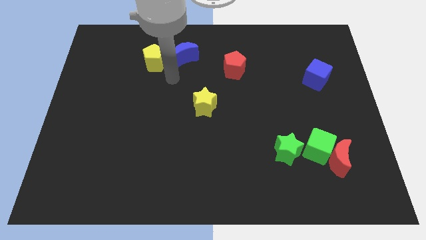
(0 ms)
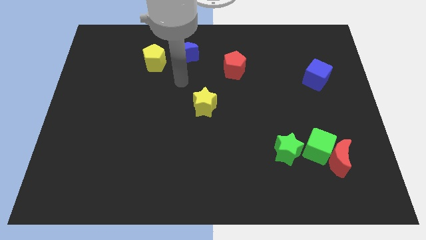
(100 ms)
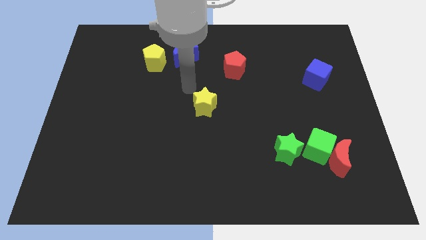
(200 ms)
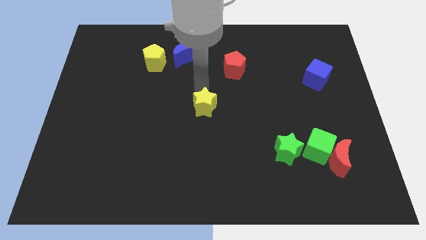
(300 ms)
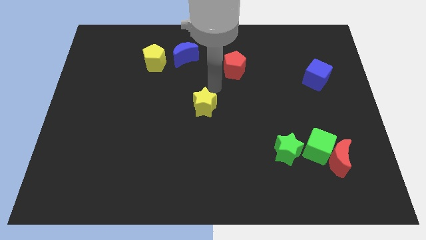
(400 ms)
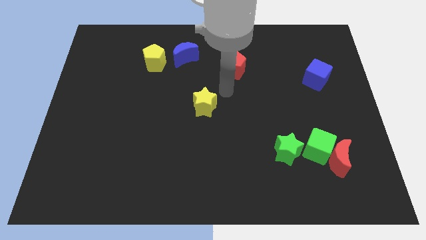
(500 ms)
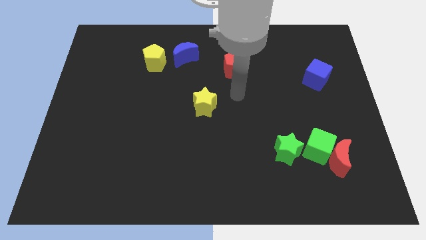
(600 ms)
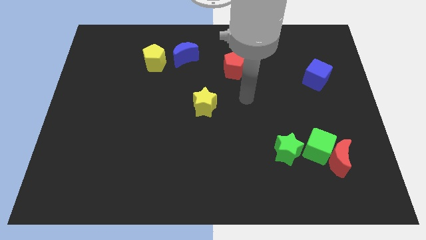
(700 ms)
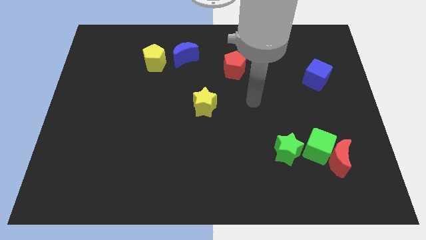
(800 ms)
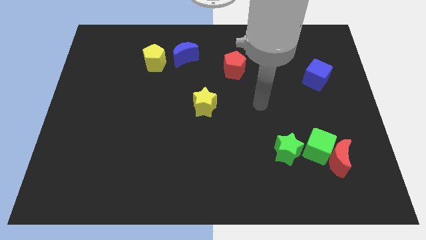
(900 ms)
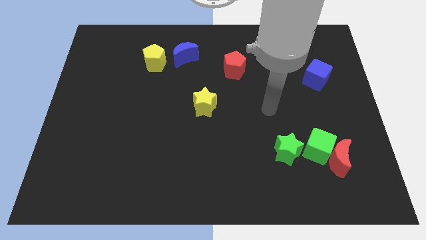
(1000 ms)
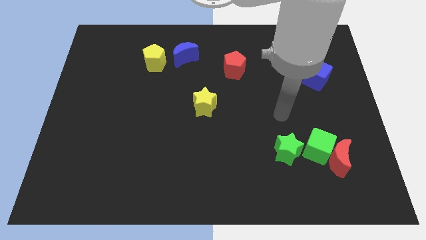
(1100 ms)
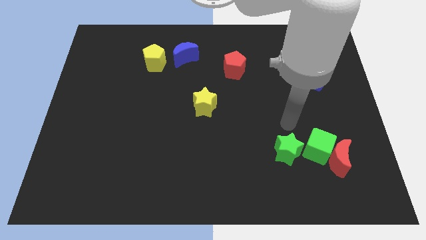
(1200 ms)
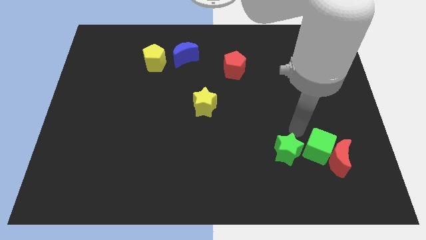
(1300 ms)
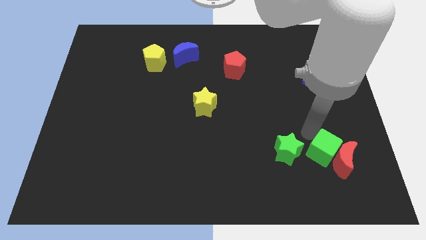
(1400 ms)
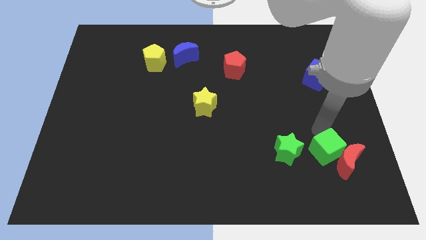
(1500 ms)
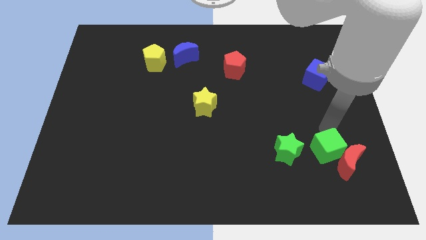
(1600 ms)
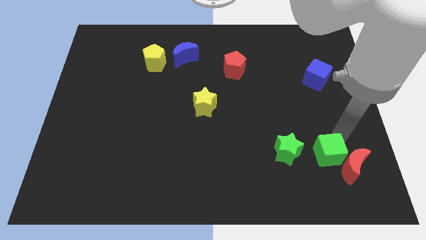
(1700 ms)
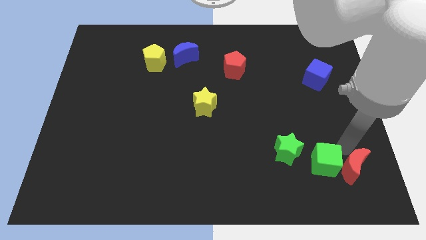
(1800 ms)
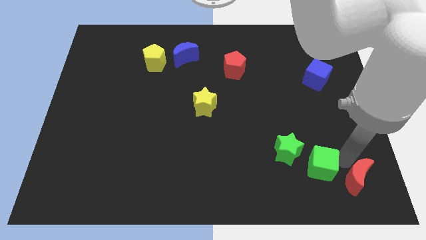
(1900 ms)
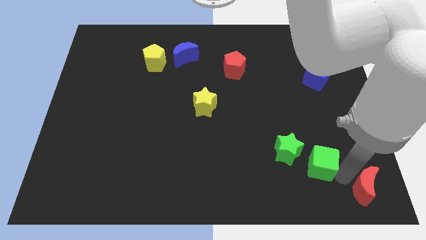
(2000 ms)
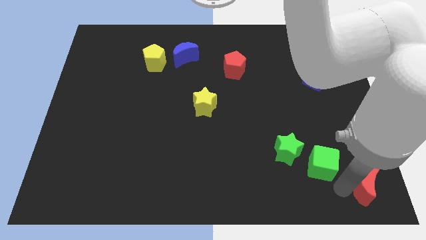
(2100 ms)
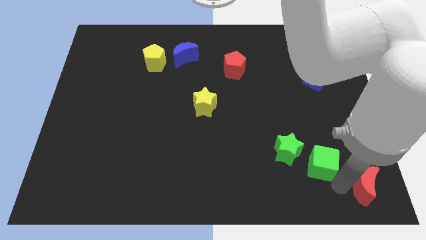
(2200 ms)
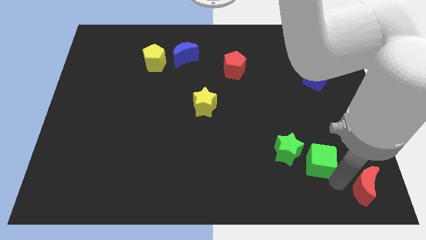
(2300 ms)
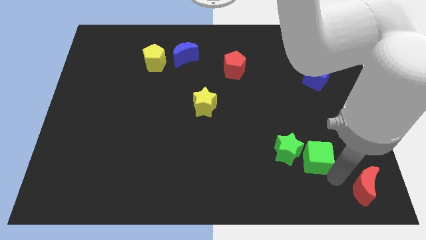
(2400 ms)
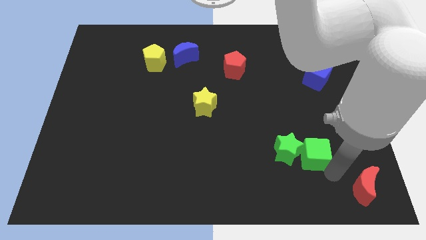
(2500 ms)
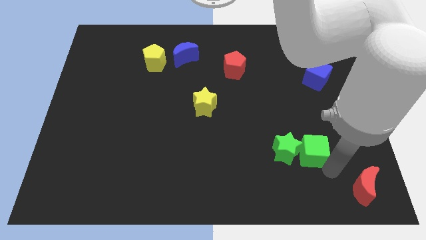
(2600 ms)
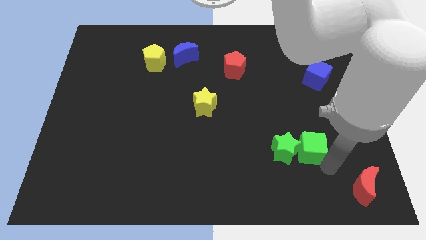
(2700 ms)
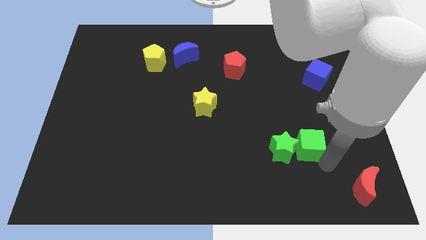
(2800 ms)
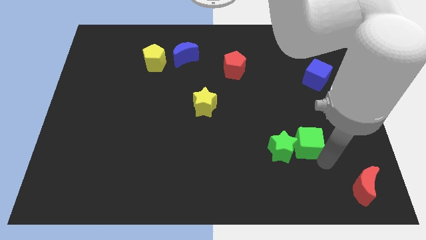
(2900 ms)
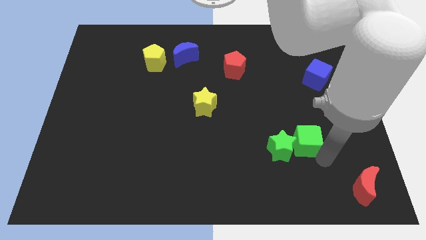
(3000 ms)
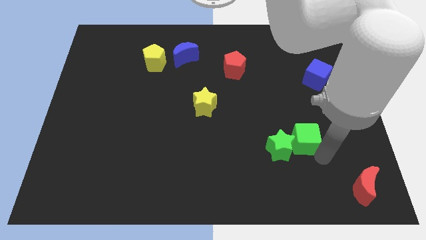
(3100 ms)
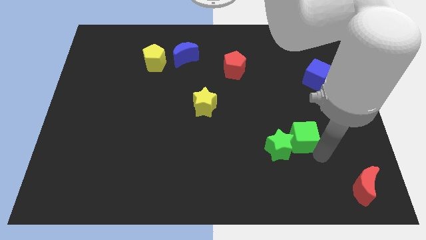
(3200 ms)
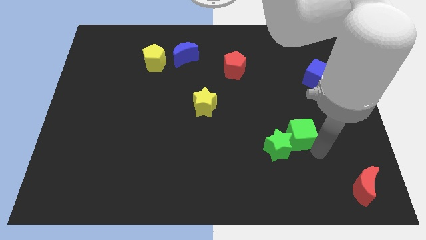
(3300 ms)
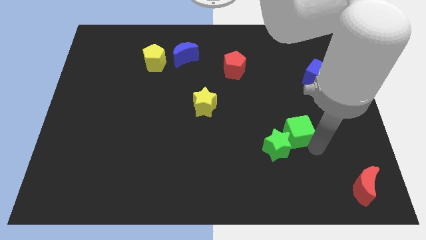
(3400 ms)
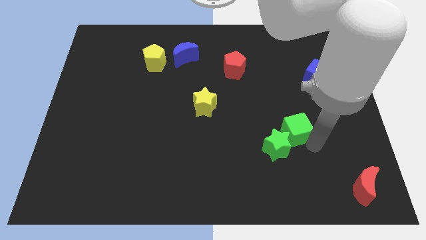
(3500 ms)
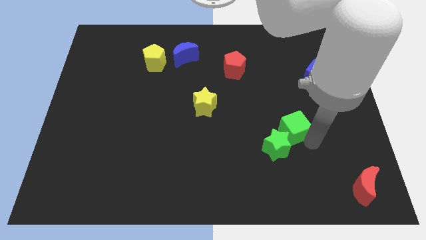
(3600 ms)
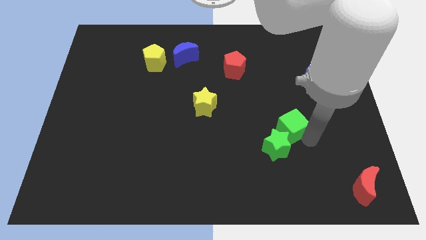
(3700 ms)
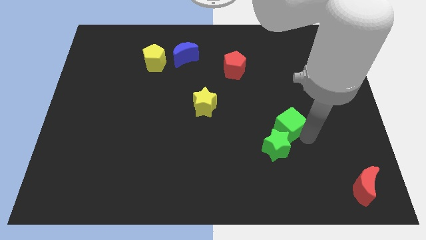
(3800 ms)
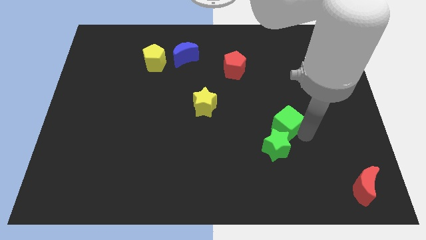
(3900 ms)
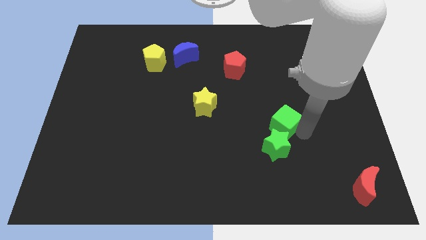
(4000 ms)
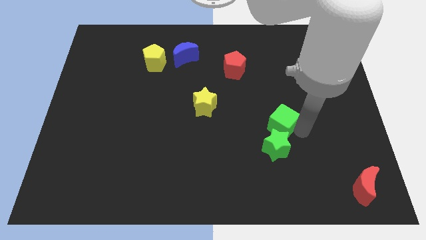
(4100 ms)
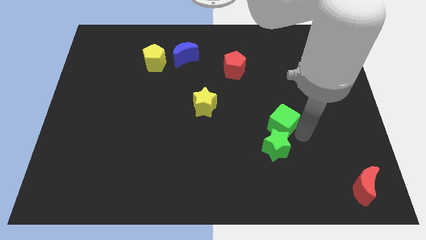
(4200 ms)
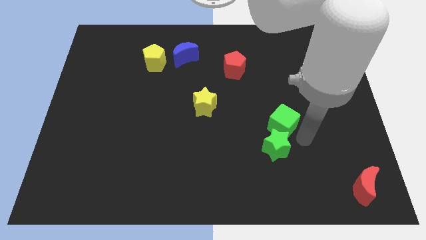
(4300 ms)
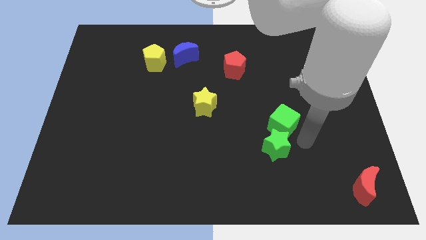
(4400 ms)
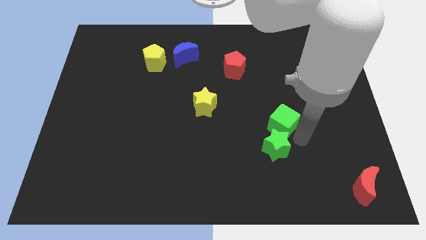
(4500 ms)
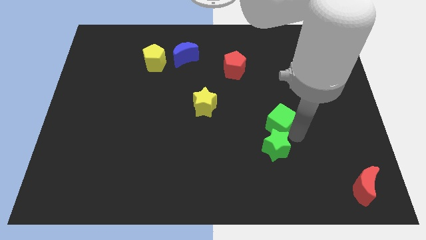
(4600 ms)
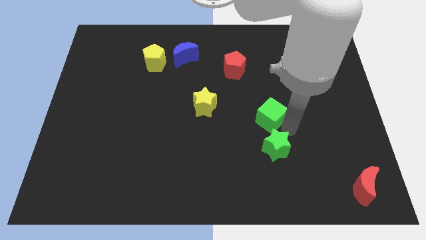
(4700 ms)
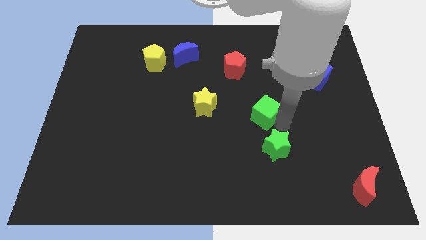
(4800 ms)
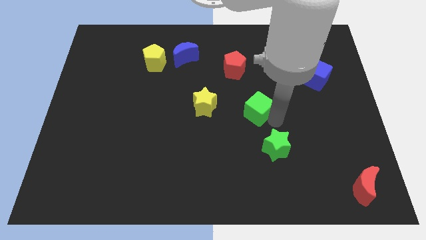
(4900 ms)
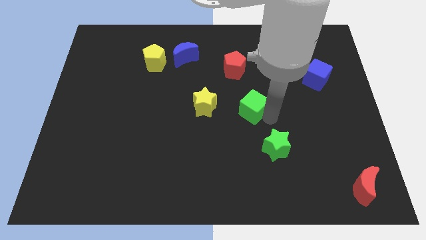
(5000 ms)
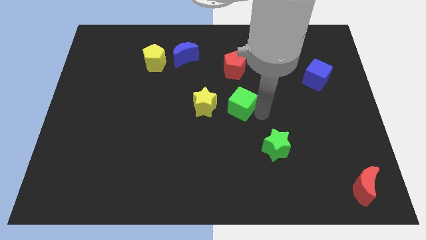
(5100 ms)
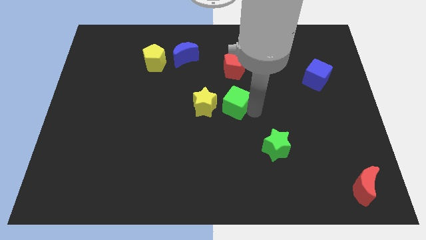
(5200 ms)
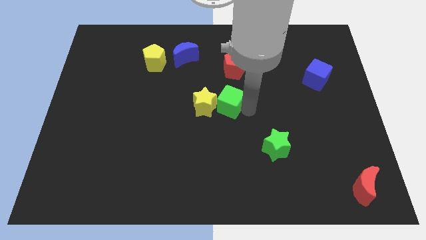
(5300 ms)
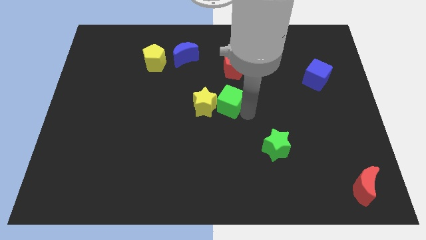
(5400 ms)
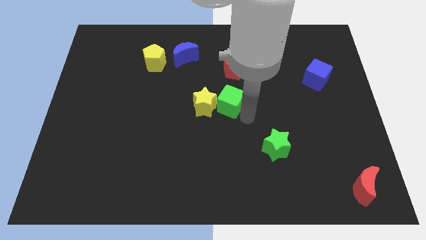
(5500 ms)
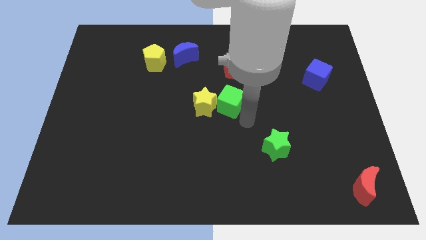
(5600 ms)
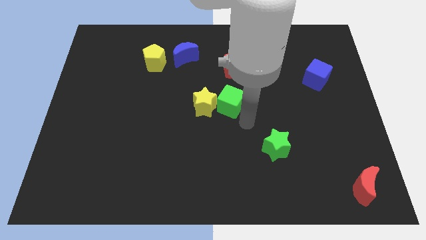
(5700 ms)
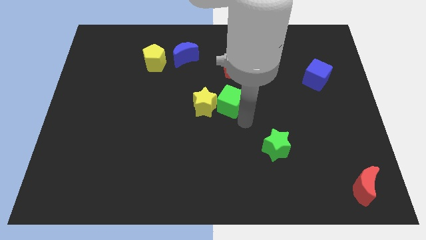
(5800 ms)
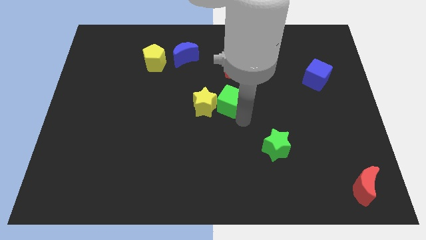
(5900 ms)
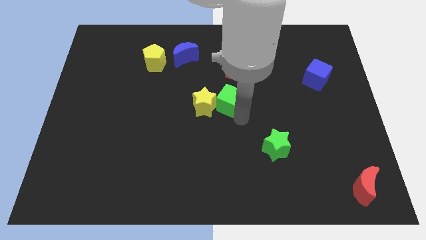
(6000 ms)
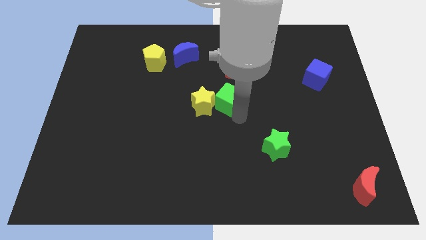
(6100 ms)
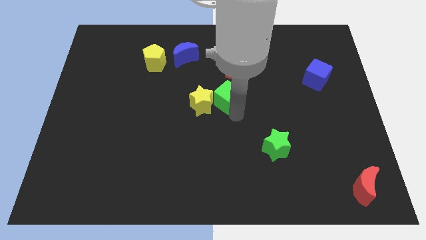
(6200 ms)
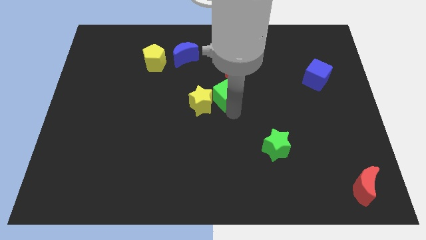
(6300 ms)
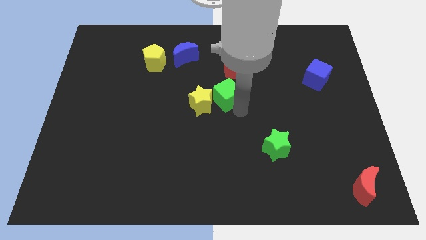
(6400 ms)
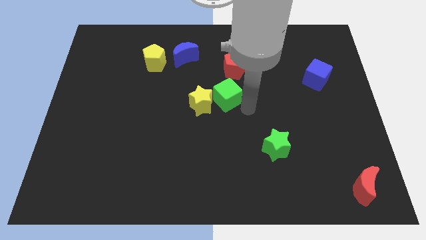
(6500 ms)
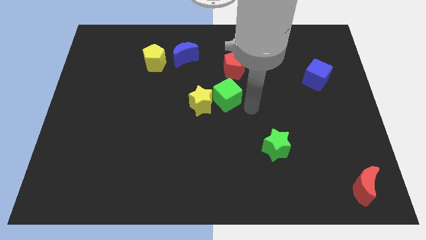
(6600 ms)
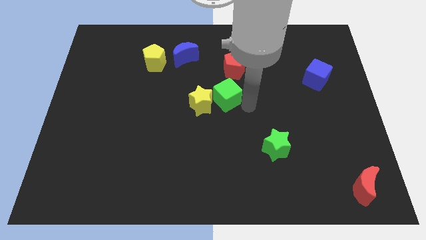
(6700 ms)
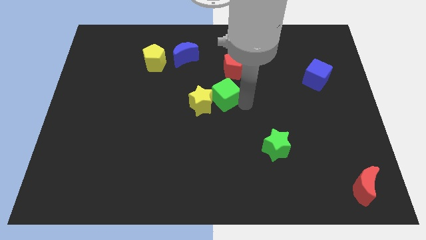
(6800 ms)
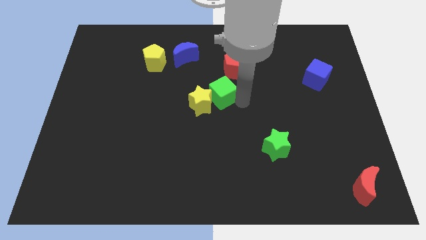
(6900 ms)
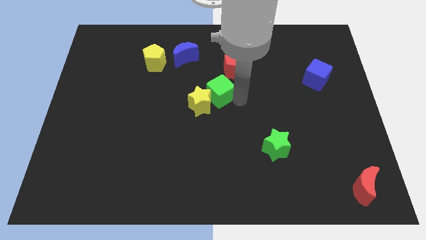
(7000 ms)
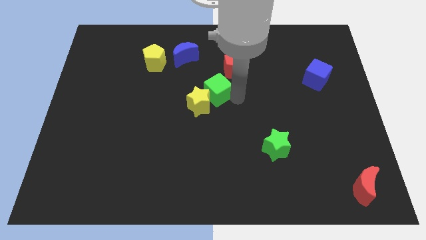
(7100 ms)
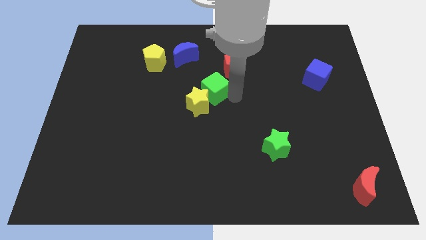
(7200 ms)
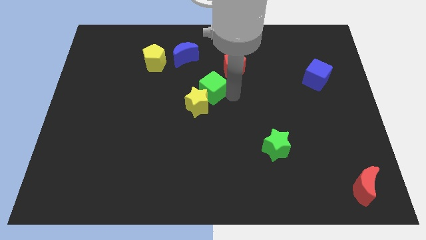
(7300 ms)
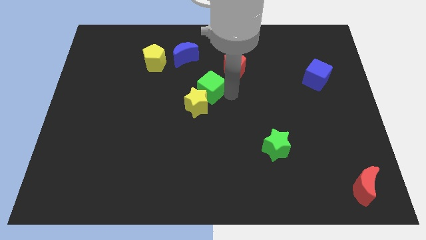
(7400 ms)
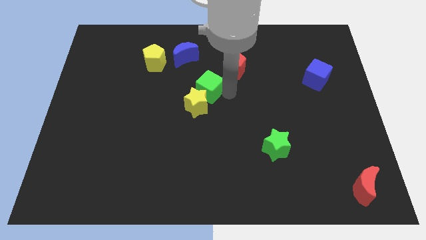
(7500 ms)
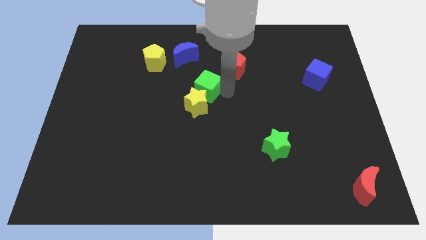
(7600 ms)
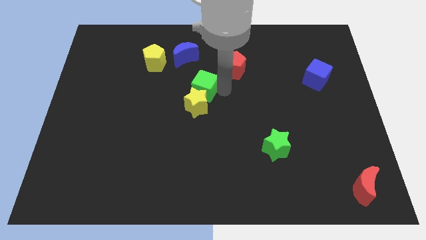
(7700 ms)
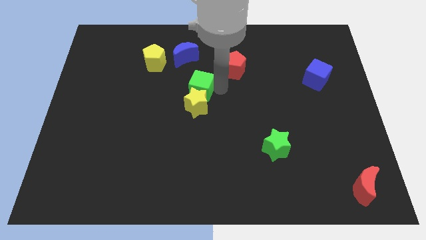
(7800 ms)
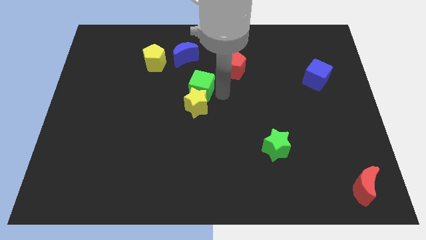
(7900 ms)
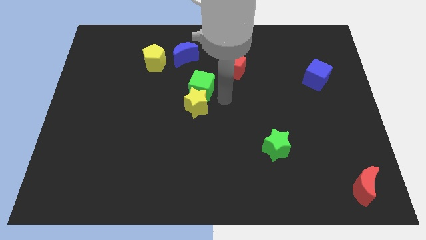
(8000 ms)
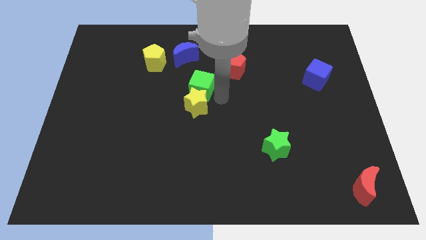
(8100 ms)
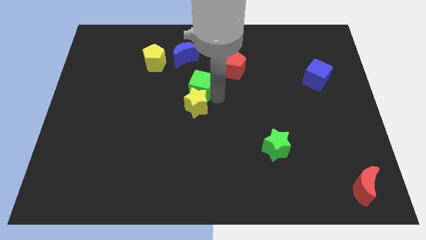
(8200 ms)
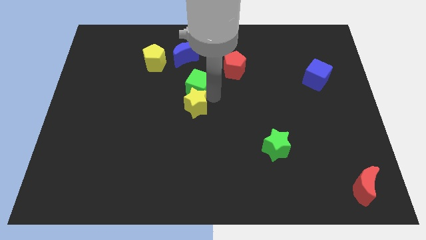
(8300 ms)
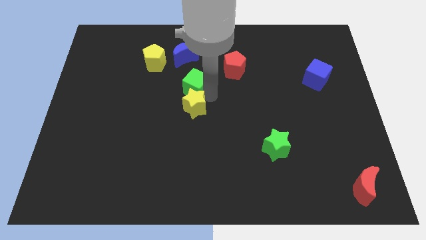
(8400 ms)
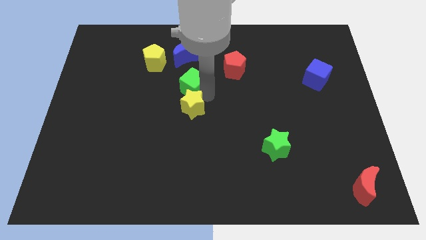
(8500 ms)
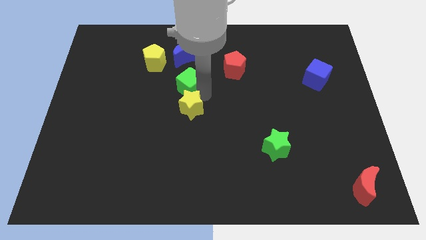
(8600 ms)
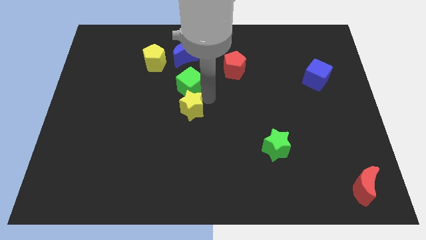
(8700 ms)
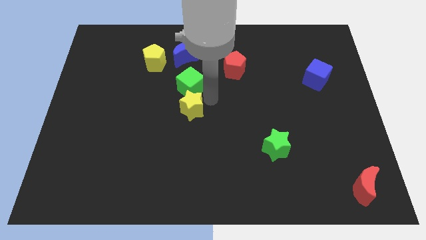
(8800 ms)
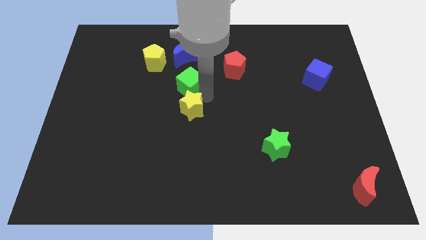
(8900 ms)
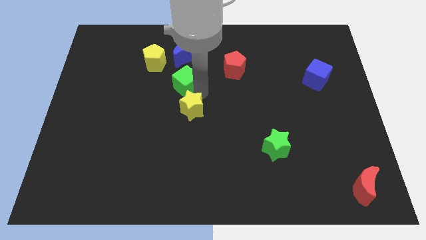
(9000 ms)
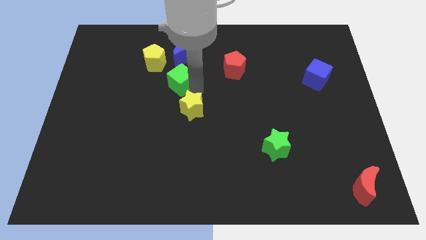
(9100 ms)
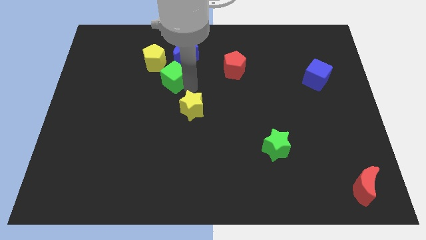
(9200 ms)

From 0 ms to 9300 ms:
push the green cube diagonally down and to the left of the blue moon
